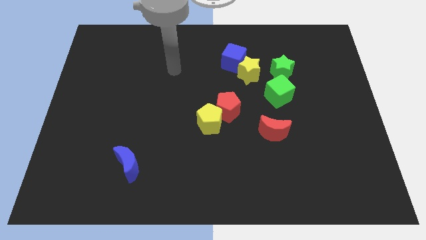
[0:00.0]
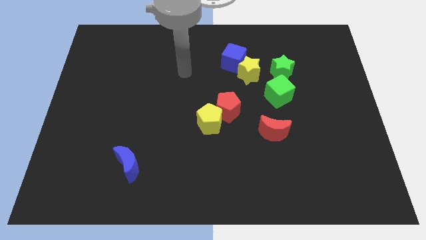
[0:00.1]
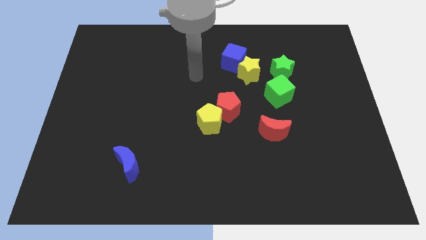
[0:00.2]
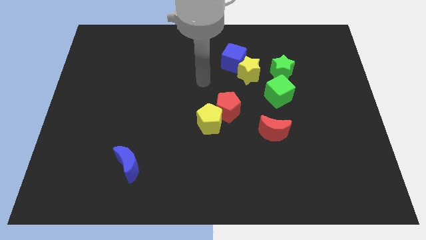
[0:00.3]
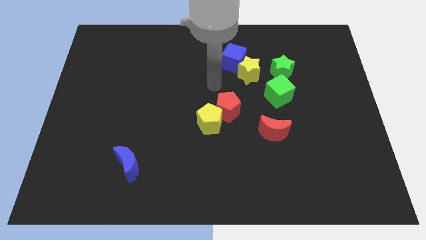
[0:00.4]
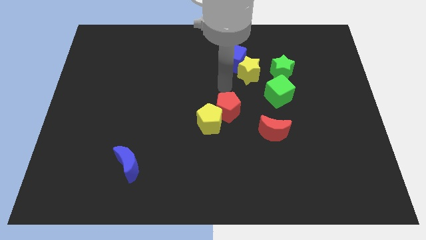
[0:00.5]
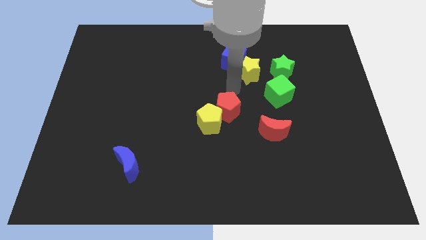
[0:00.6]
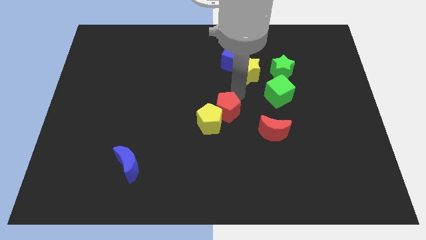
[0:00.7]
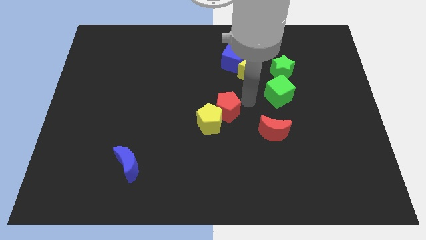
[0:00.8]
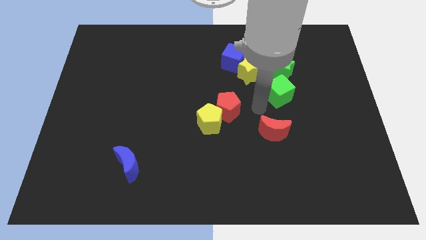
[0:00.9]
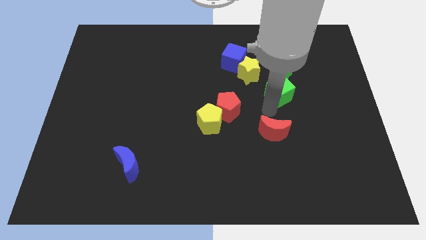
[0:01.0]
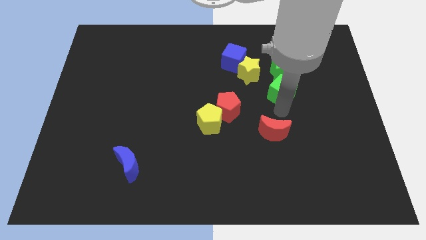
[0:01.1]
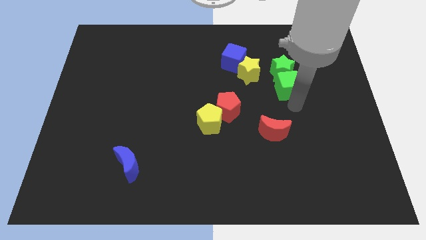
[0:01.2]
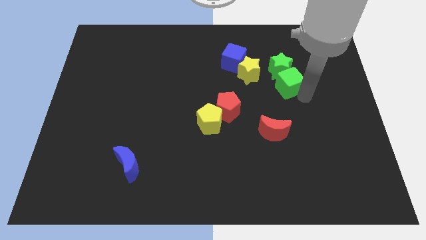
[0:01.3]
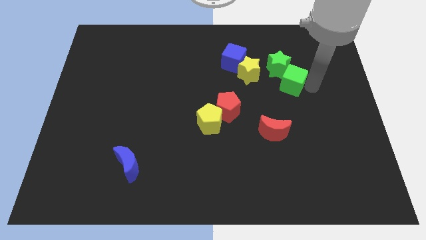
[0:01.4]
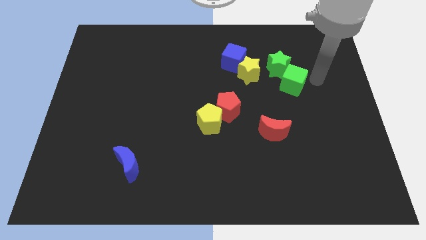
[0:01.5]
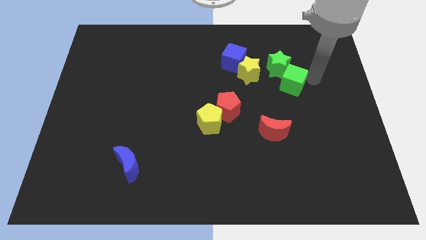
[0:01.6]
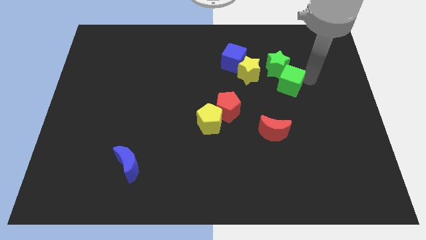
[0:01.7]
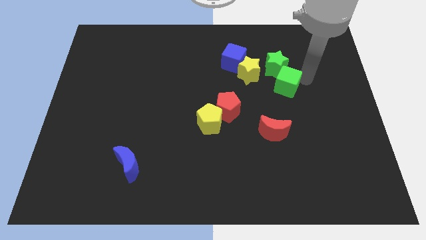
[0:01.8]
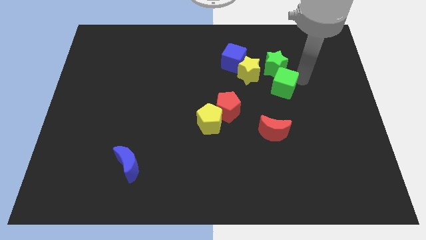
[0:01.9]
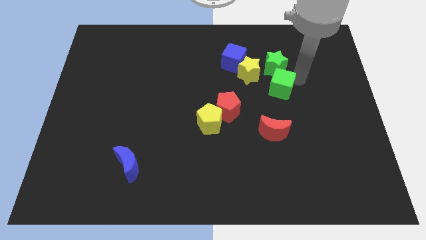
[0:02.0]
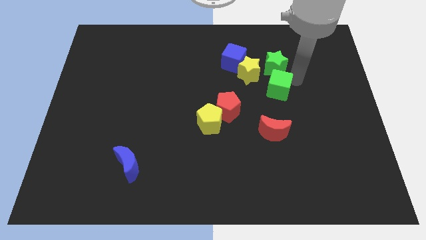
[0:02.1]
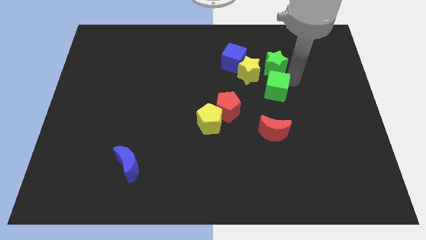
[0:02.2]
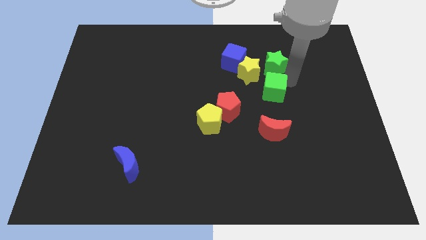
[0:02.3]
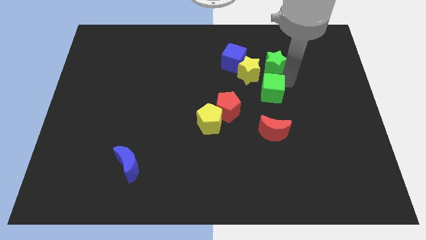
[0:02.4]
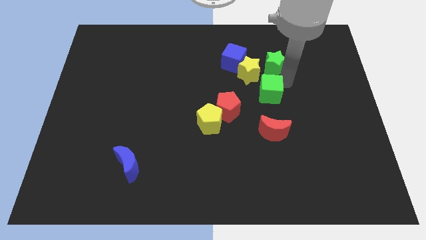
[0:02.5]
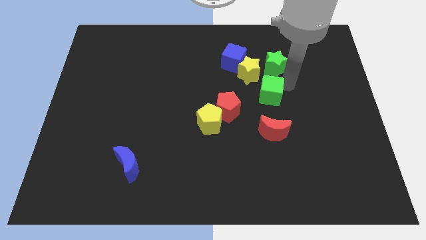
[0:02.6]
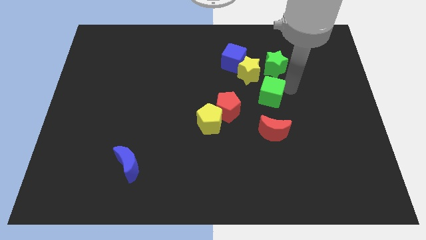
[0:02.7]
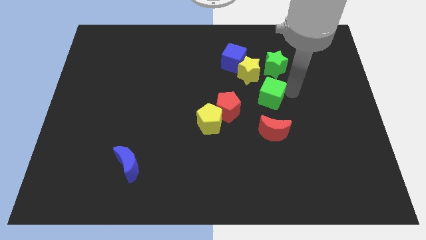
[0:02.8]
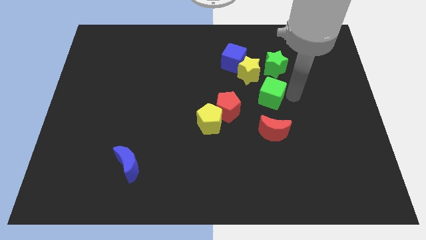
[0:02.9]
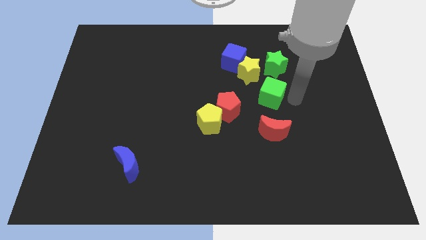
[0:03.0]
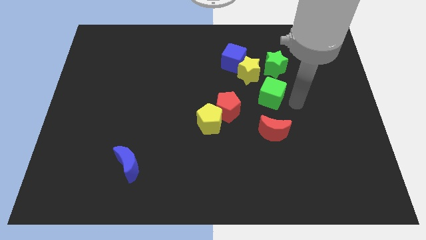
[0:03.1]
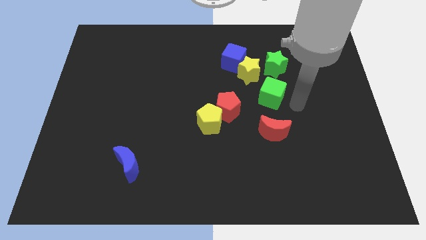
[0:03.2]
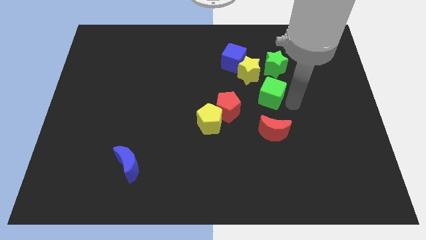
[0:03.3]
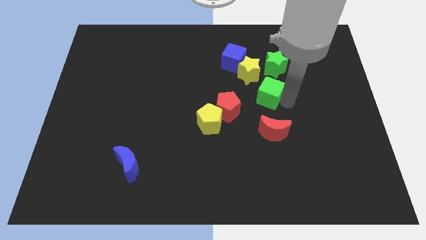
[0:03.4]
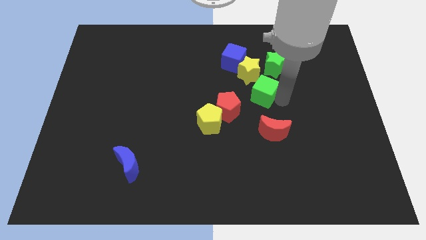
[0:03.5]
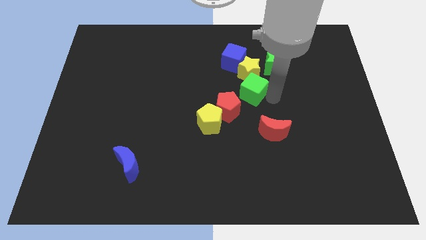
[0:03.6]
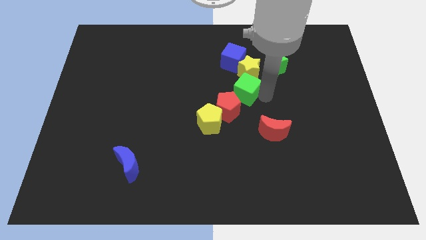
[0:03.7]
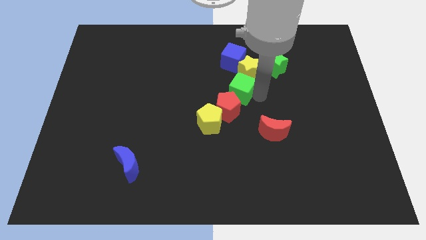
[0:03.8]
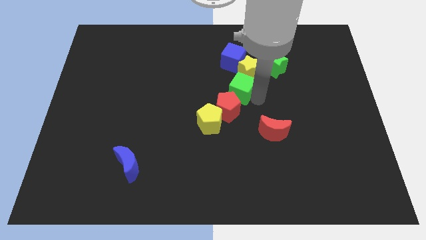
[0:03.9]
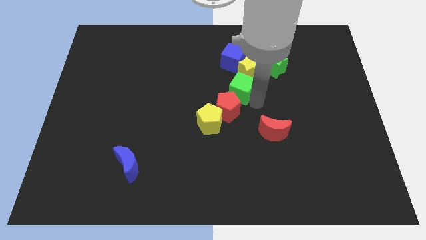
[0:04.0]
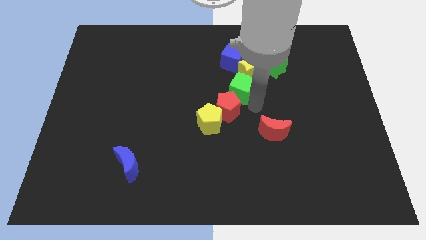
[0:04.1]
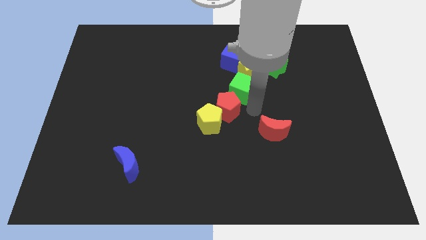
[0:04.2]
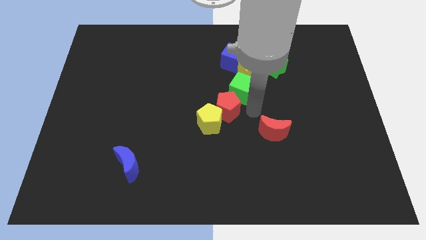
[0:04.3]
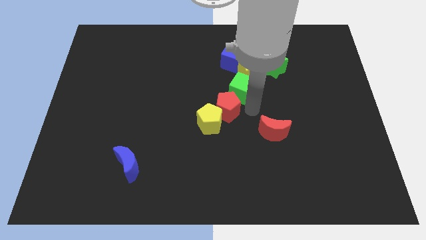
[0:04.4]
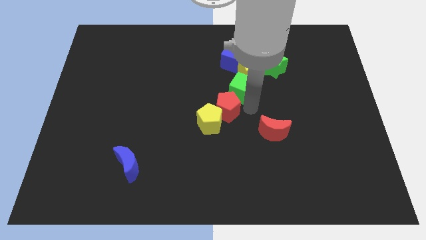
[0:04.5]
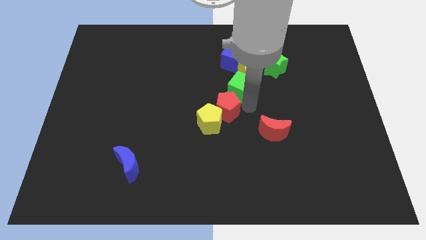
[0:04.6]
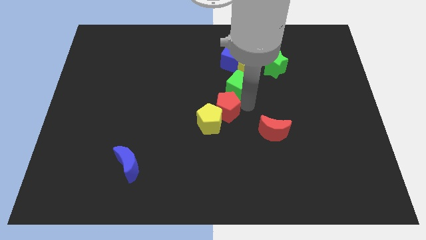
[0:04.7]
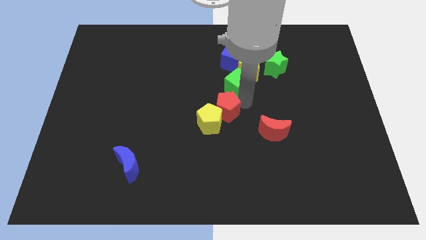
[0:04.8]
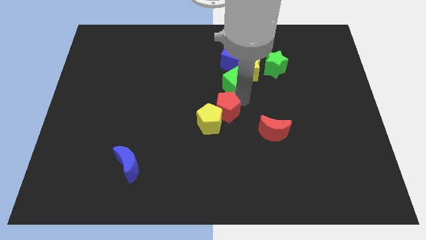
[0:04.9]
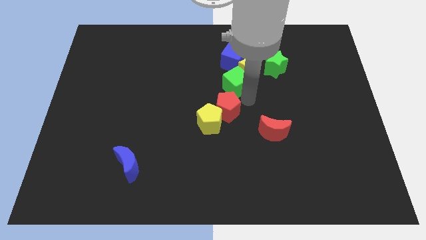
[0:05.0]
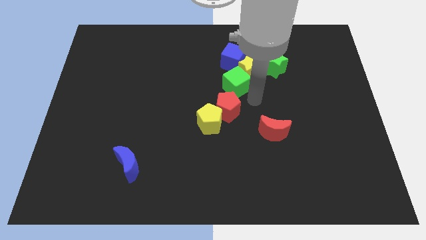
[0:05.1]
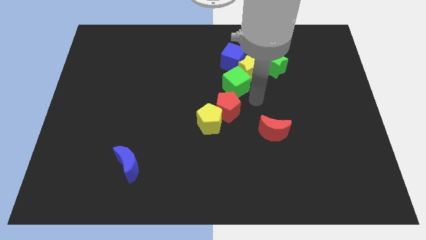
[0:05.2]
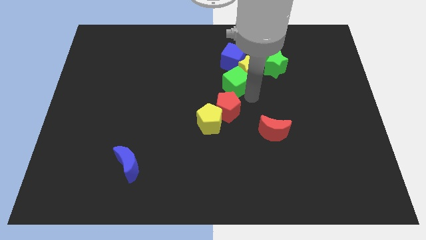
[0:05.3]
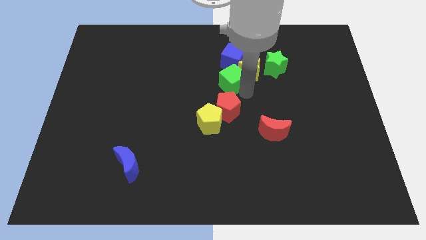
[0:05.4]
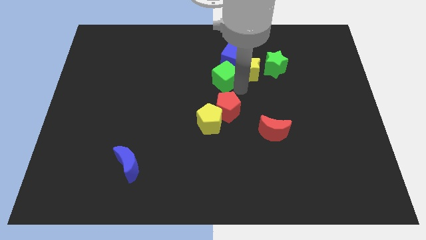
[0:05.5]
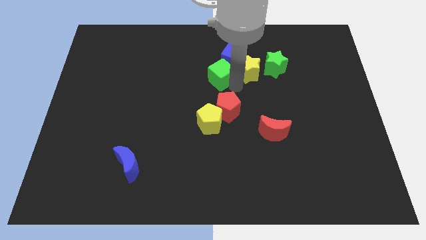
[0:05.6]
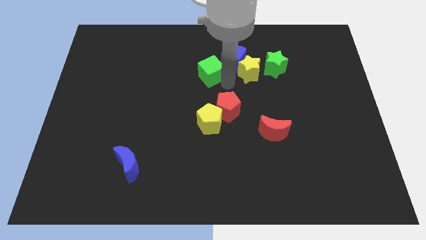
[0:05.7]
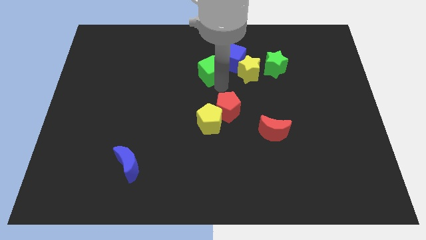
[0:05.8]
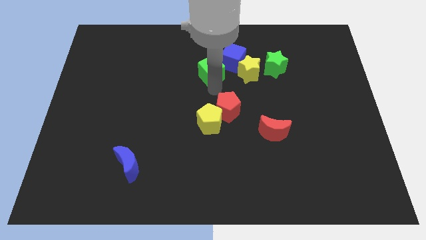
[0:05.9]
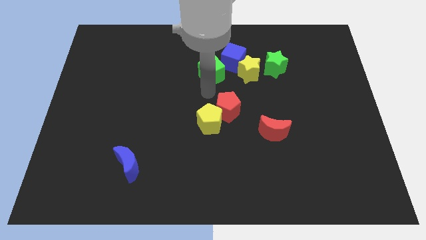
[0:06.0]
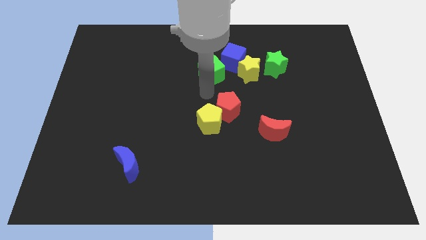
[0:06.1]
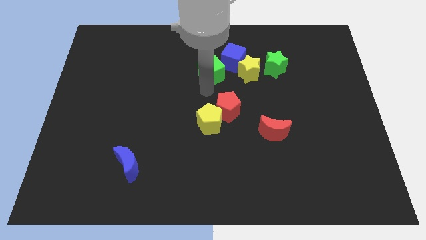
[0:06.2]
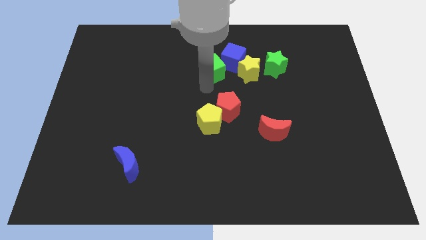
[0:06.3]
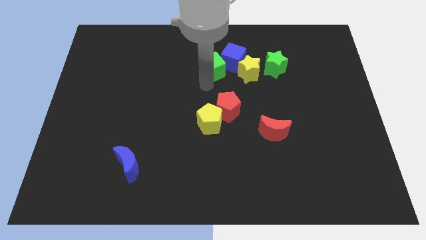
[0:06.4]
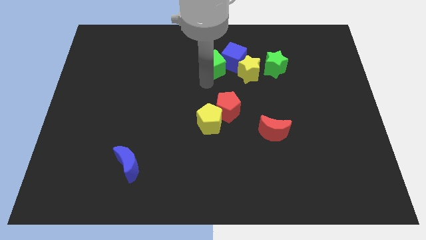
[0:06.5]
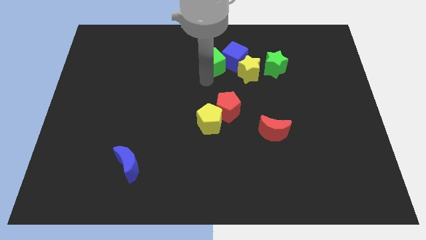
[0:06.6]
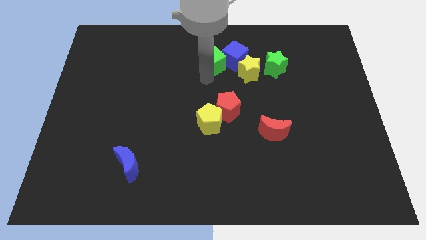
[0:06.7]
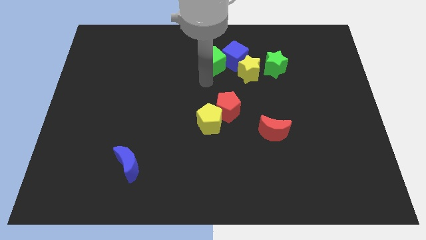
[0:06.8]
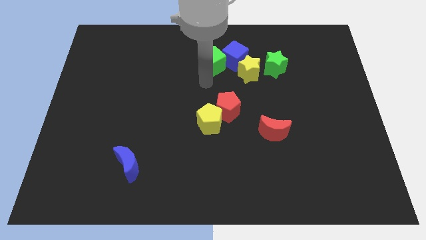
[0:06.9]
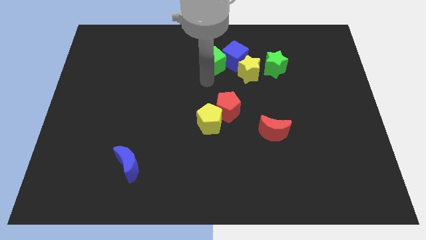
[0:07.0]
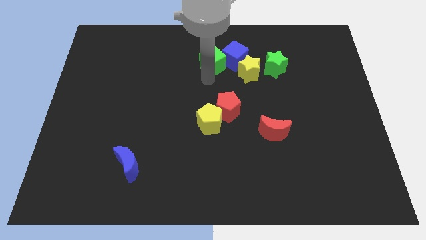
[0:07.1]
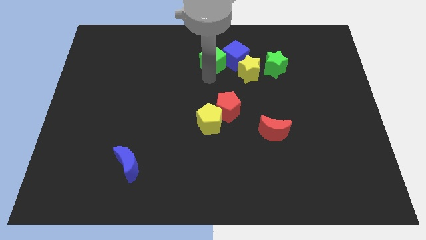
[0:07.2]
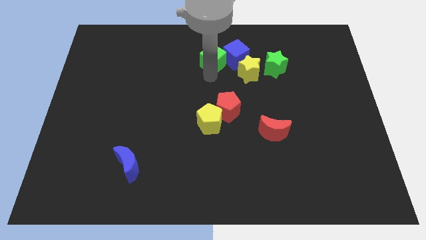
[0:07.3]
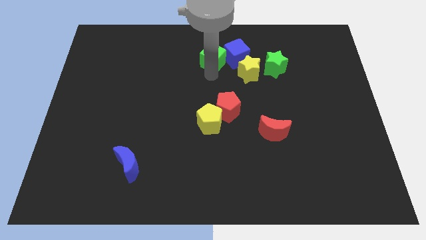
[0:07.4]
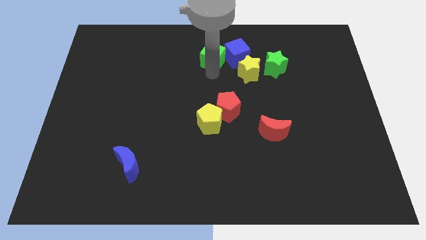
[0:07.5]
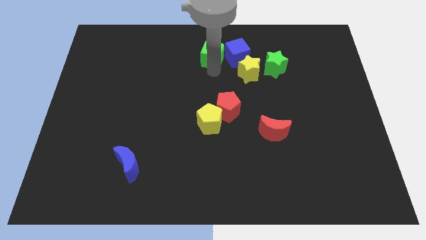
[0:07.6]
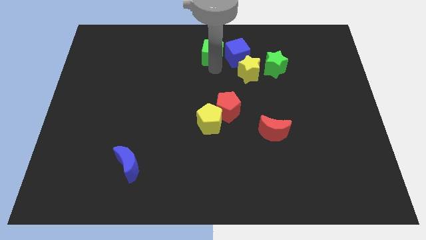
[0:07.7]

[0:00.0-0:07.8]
push the green cube to the towards your base
